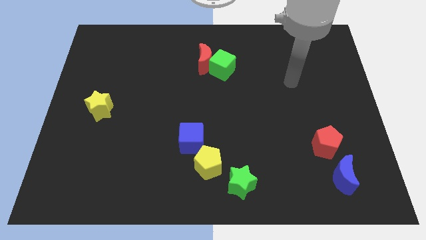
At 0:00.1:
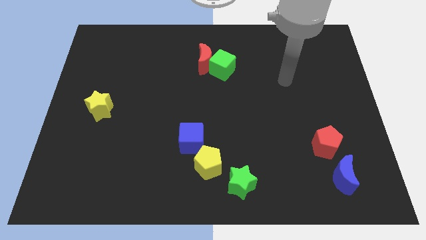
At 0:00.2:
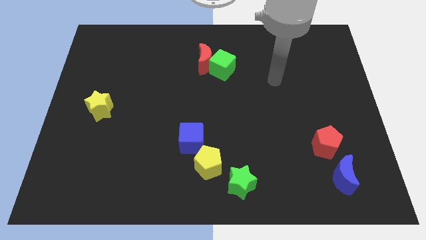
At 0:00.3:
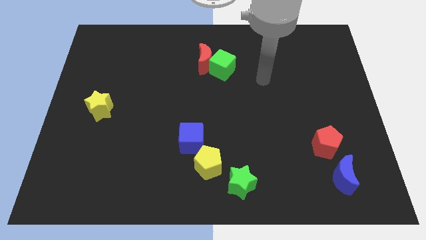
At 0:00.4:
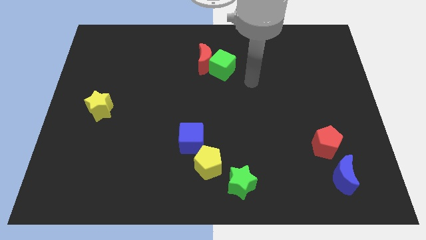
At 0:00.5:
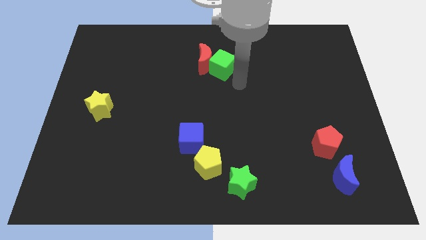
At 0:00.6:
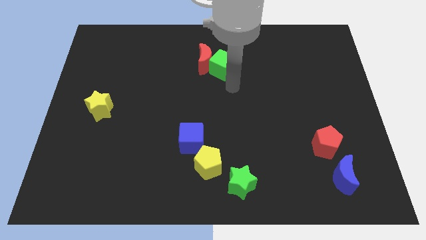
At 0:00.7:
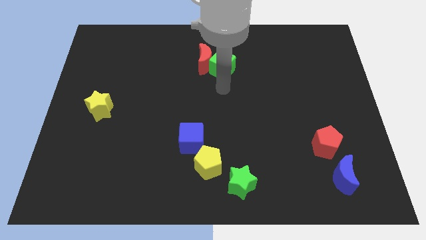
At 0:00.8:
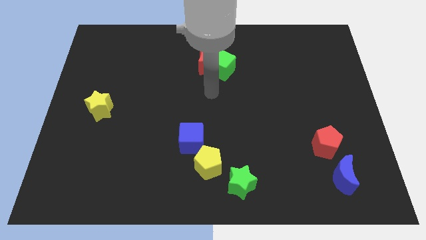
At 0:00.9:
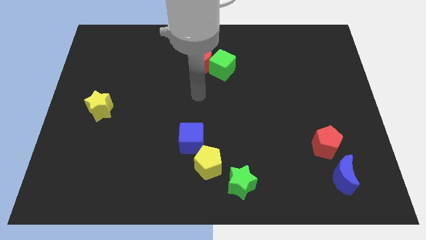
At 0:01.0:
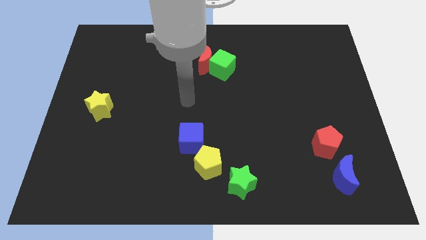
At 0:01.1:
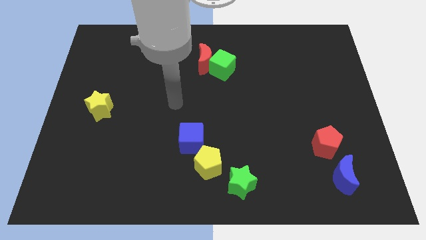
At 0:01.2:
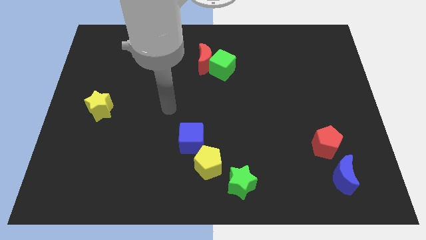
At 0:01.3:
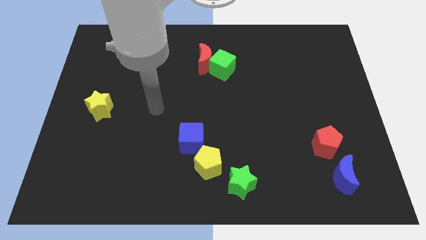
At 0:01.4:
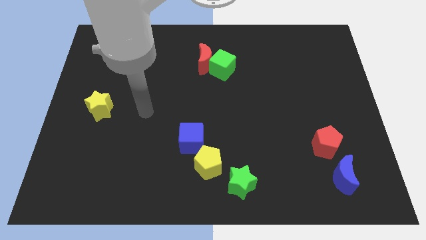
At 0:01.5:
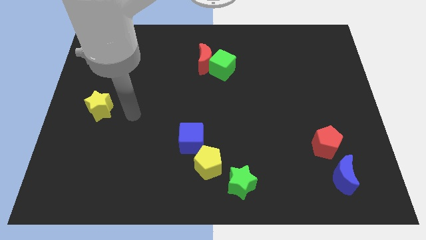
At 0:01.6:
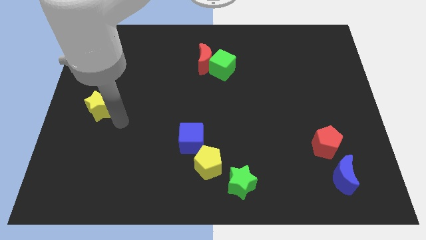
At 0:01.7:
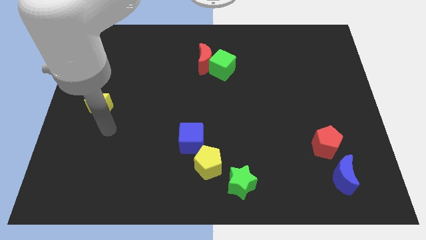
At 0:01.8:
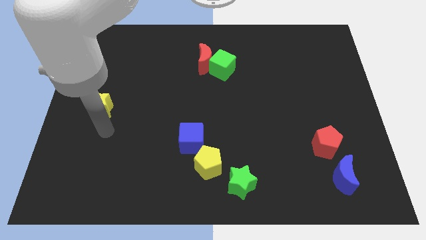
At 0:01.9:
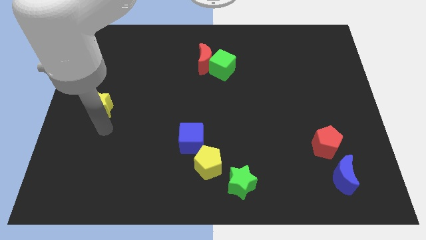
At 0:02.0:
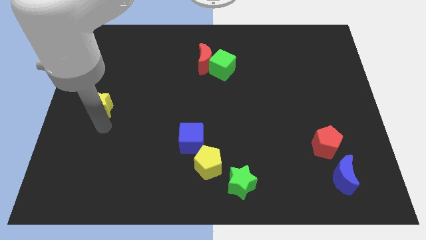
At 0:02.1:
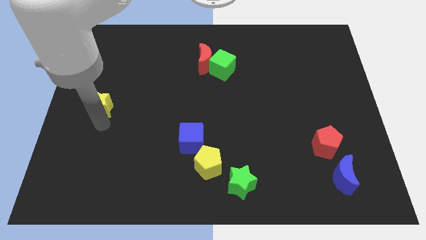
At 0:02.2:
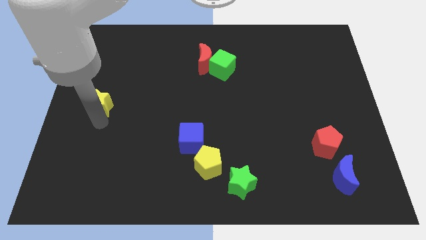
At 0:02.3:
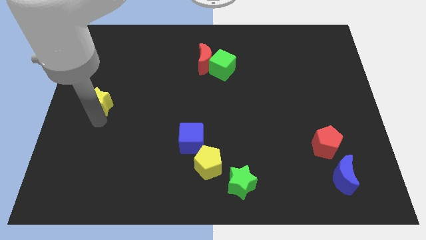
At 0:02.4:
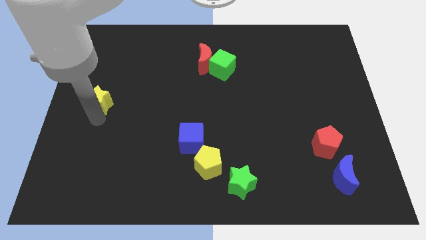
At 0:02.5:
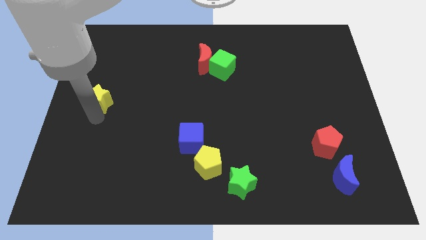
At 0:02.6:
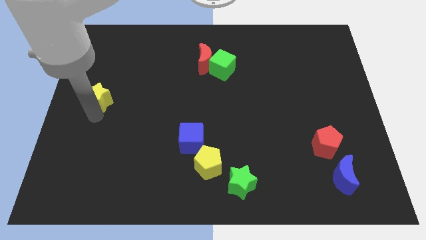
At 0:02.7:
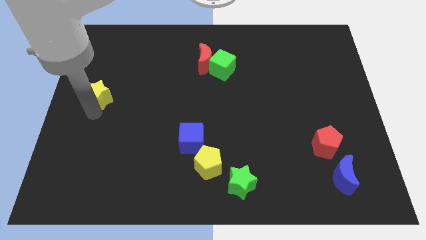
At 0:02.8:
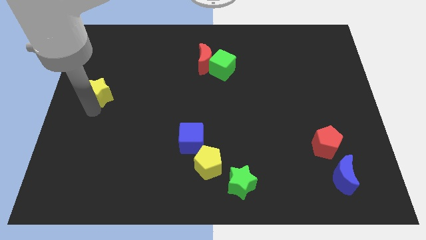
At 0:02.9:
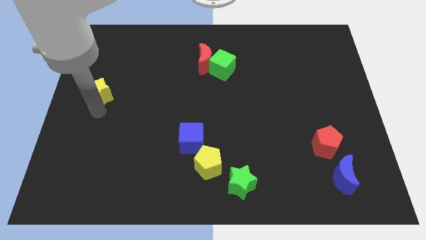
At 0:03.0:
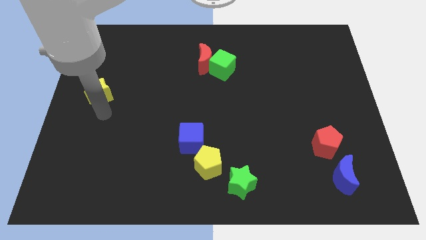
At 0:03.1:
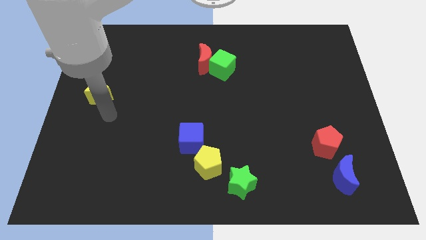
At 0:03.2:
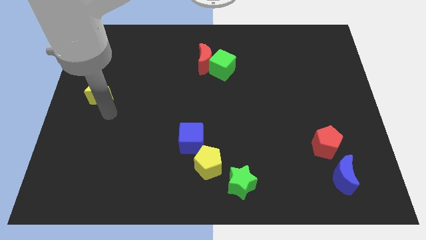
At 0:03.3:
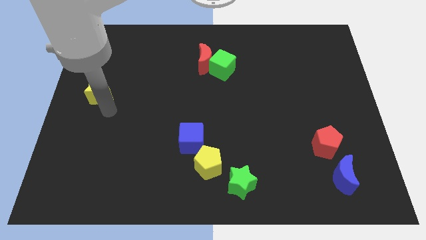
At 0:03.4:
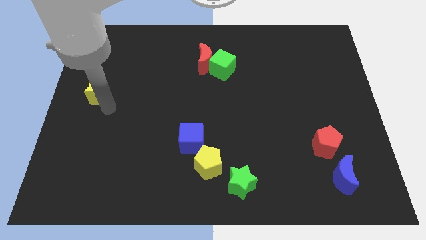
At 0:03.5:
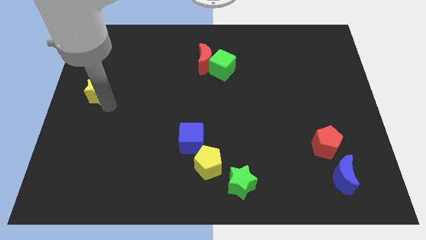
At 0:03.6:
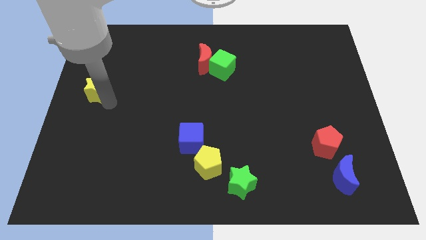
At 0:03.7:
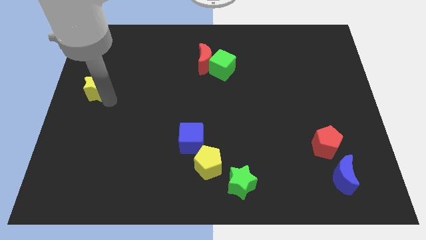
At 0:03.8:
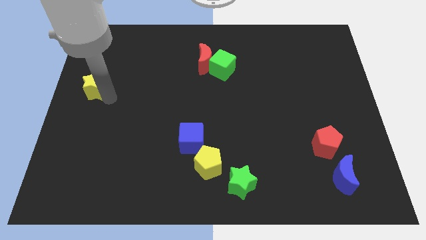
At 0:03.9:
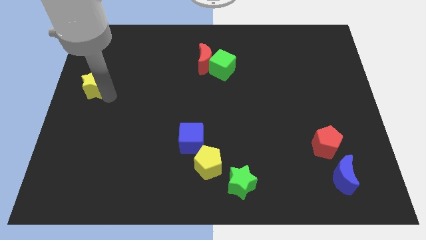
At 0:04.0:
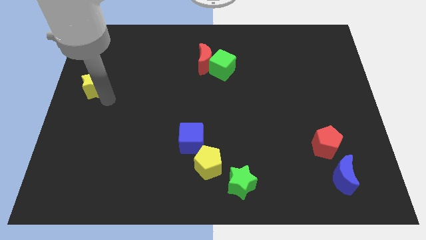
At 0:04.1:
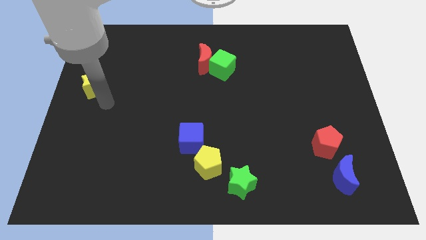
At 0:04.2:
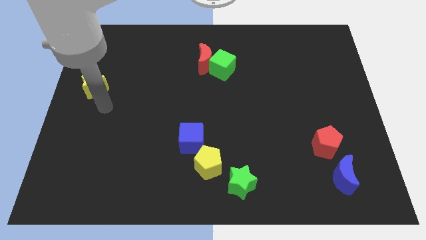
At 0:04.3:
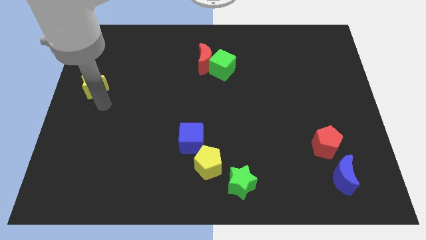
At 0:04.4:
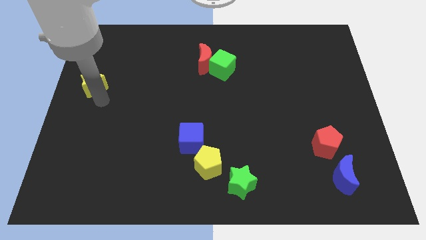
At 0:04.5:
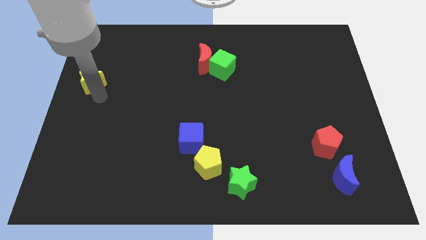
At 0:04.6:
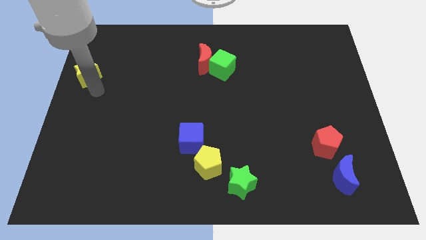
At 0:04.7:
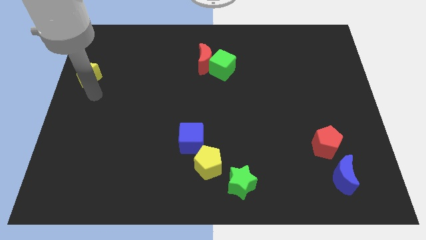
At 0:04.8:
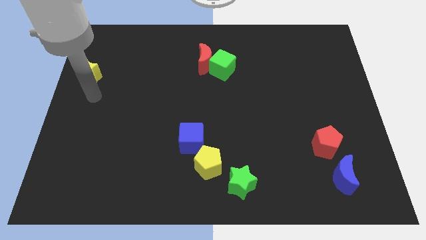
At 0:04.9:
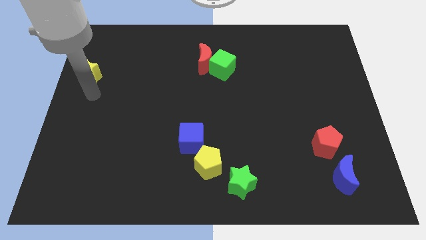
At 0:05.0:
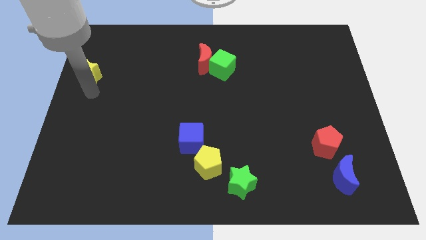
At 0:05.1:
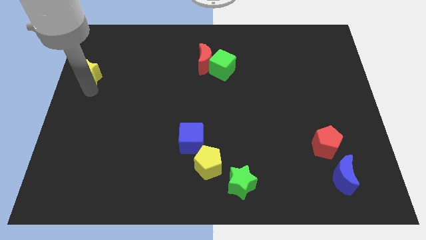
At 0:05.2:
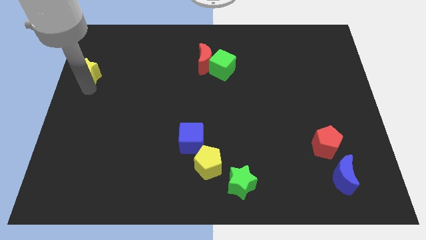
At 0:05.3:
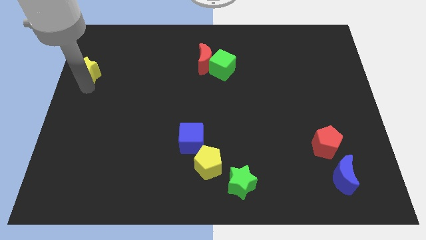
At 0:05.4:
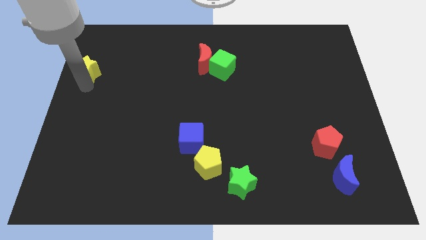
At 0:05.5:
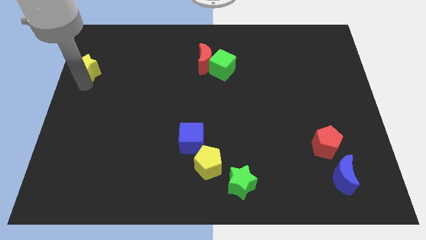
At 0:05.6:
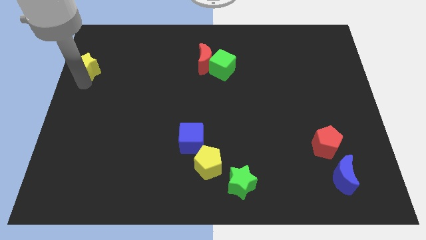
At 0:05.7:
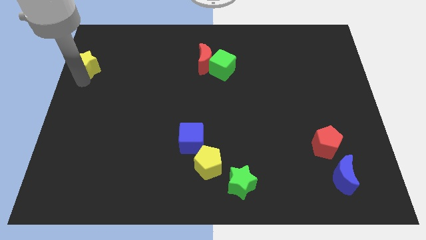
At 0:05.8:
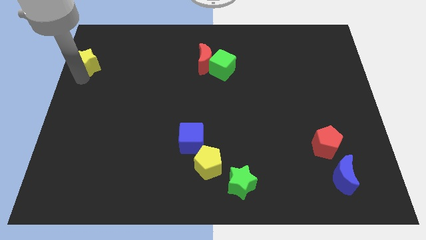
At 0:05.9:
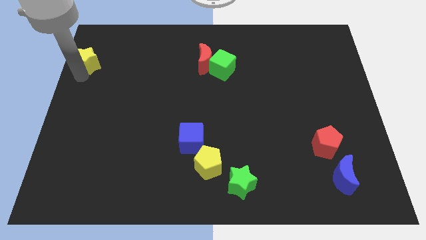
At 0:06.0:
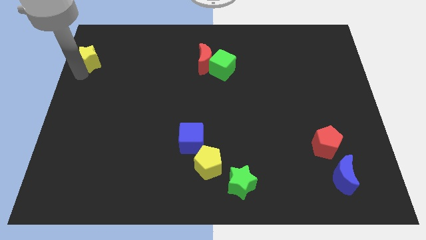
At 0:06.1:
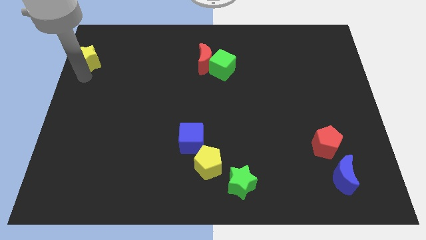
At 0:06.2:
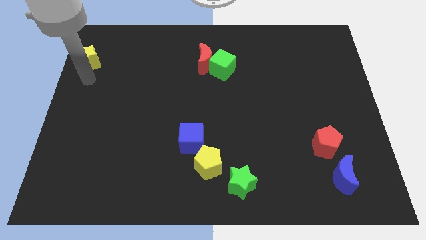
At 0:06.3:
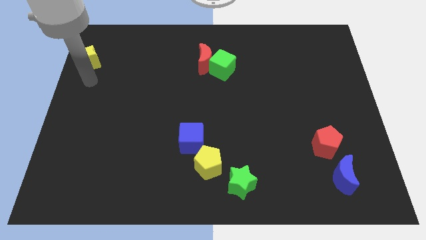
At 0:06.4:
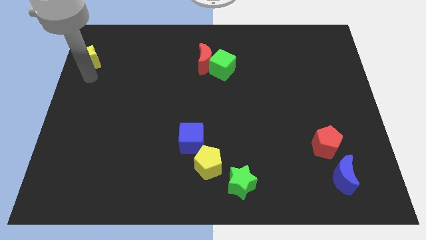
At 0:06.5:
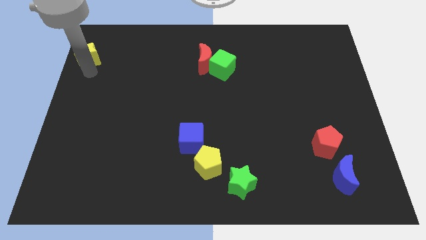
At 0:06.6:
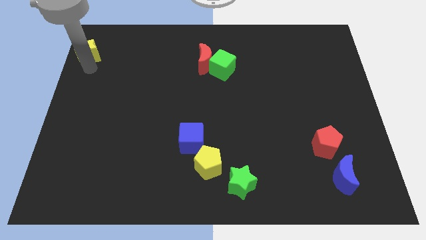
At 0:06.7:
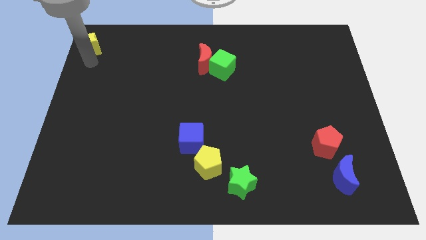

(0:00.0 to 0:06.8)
put the yellow star to the top left

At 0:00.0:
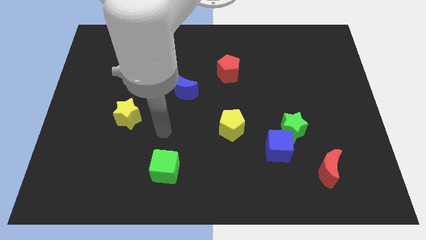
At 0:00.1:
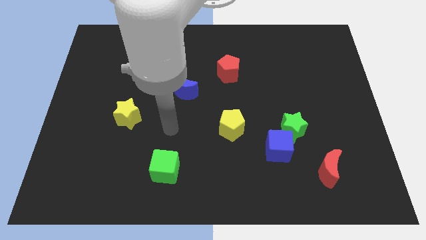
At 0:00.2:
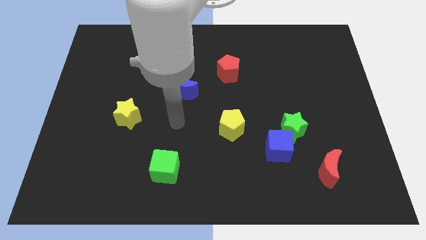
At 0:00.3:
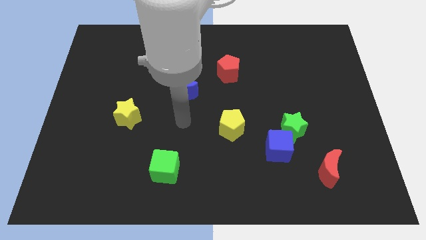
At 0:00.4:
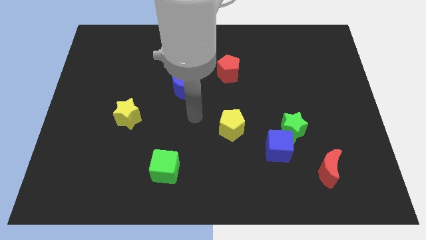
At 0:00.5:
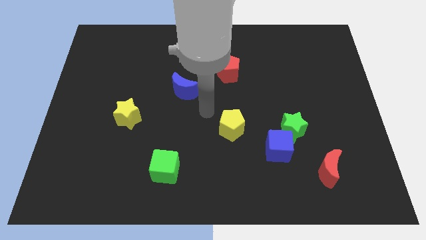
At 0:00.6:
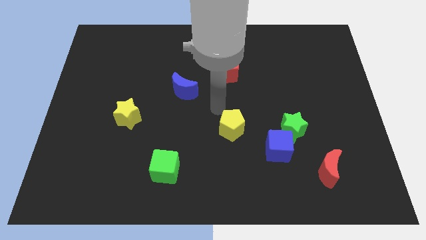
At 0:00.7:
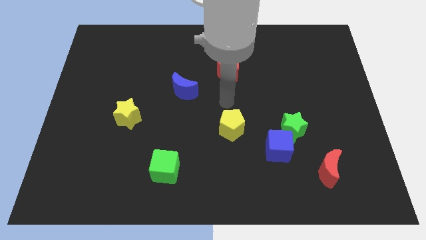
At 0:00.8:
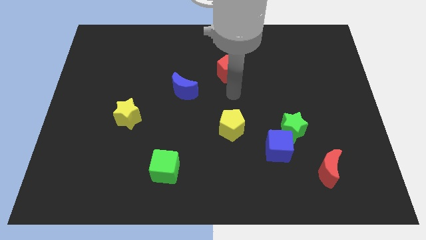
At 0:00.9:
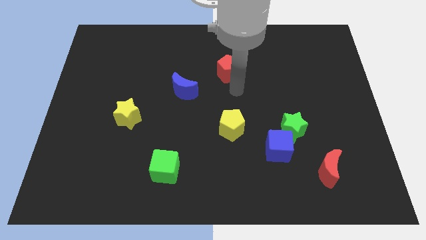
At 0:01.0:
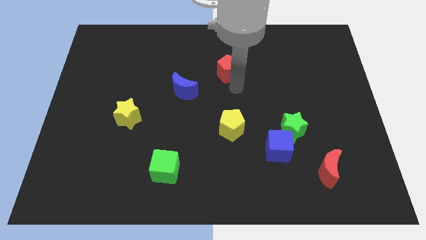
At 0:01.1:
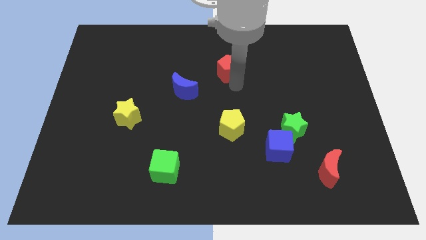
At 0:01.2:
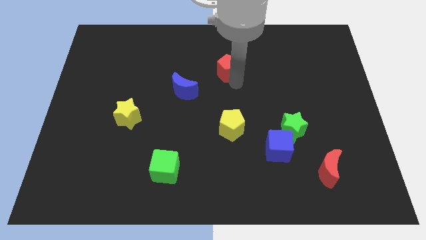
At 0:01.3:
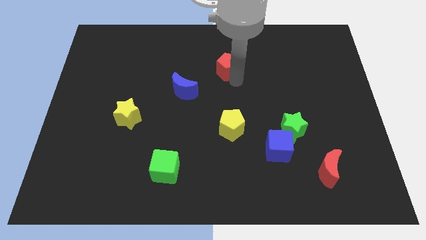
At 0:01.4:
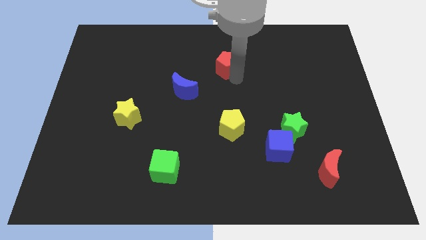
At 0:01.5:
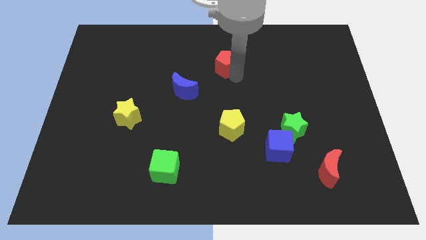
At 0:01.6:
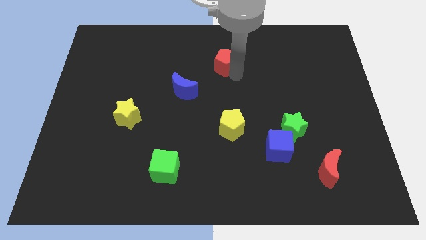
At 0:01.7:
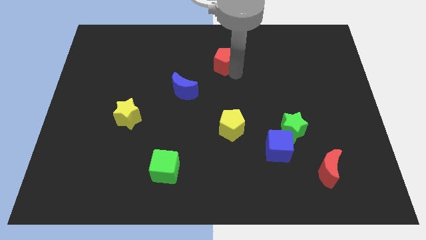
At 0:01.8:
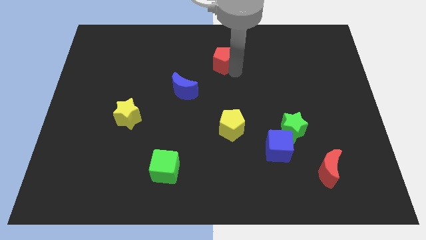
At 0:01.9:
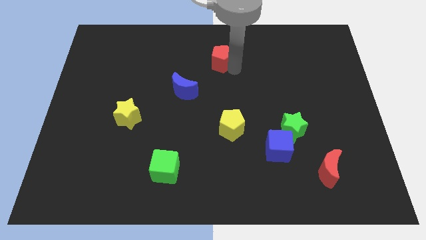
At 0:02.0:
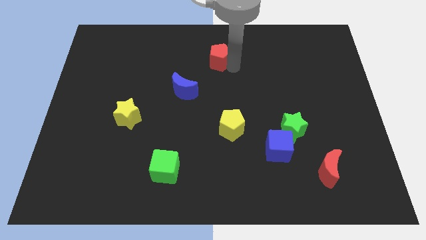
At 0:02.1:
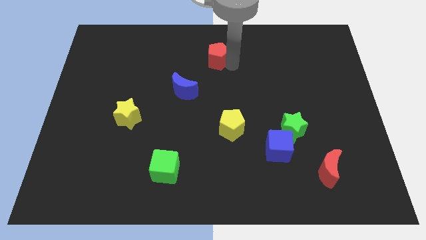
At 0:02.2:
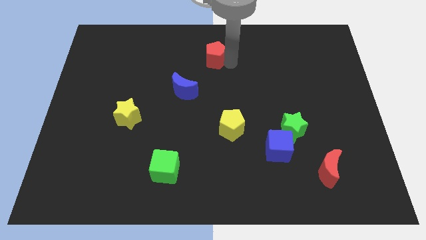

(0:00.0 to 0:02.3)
push the red pentagon to the top
